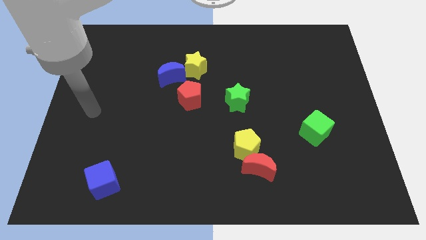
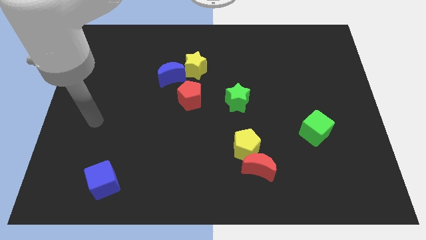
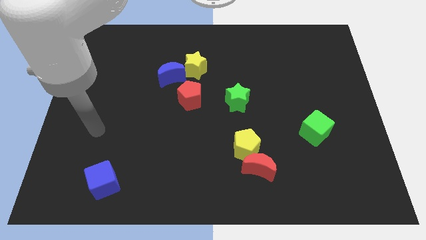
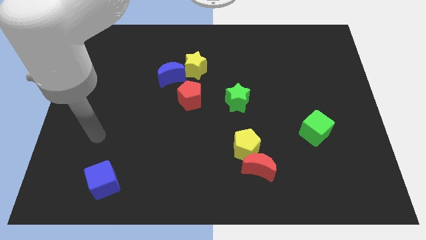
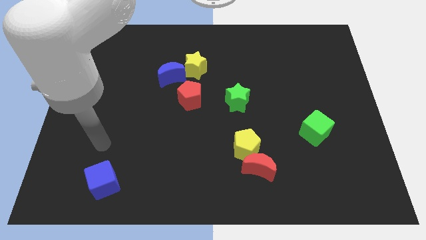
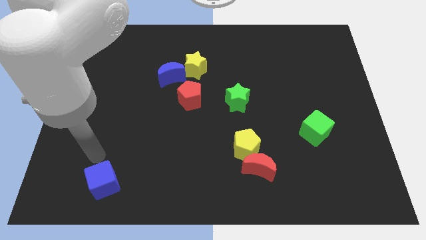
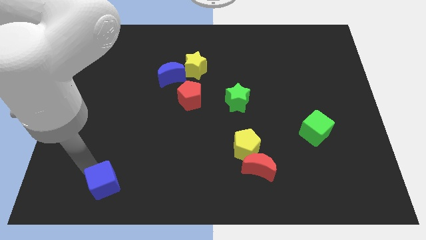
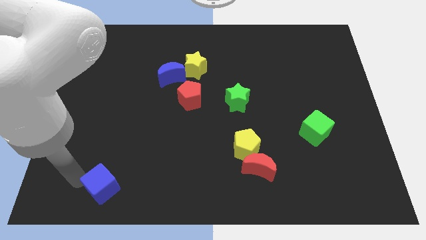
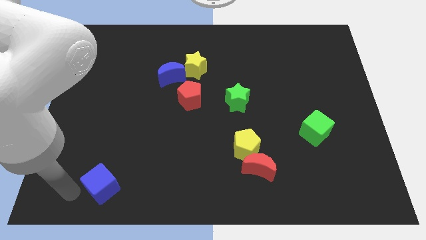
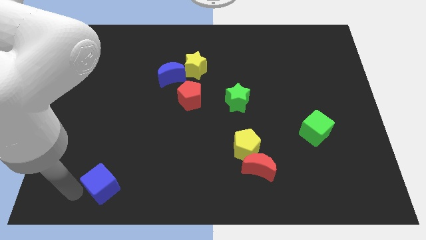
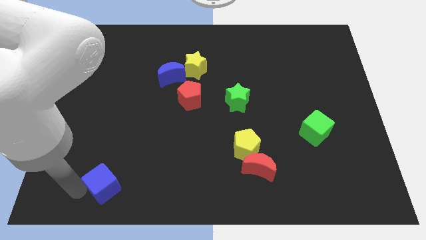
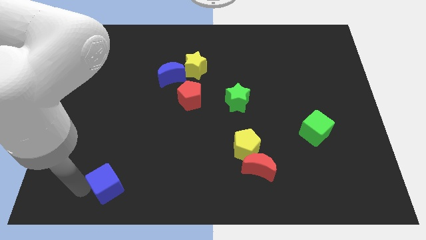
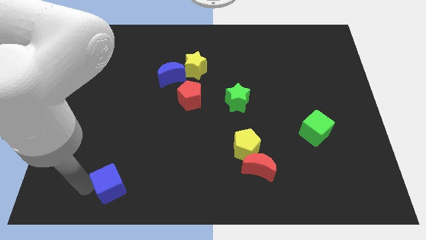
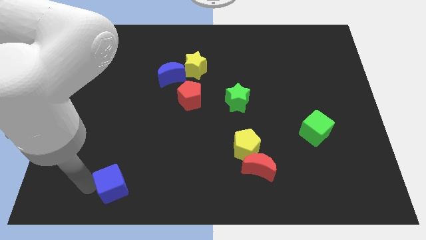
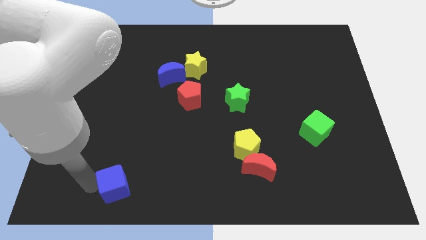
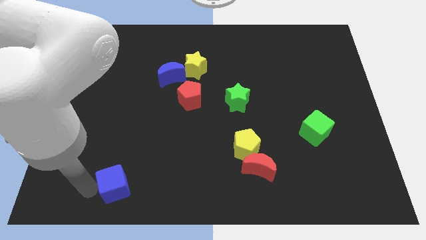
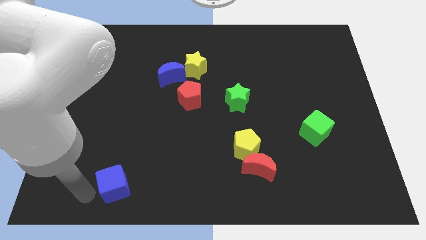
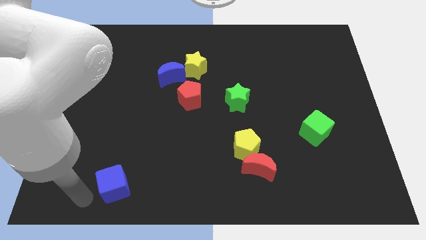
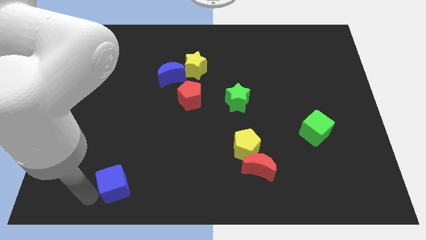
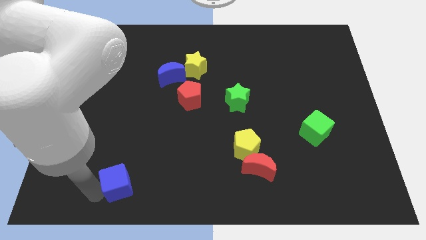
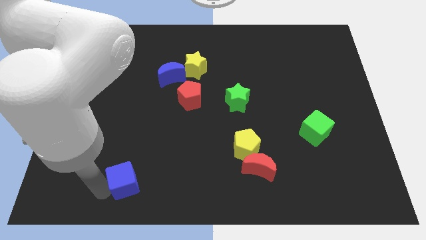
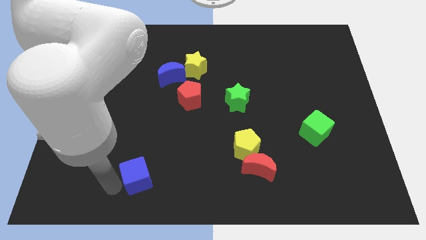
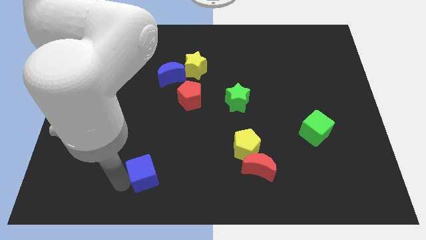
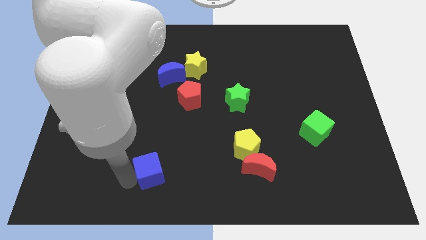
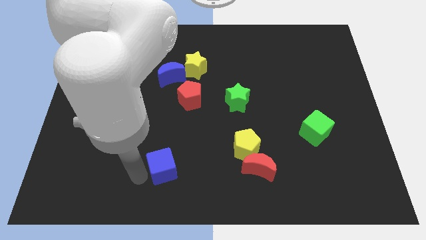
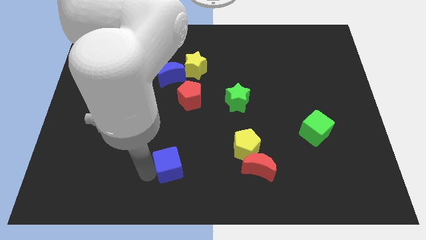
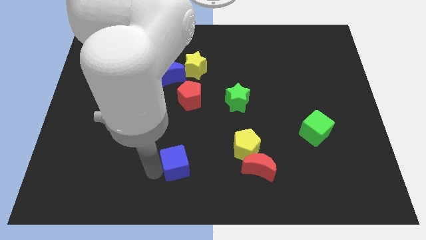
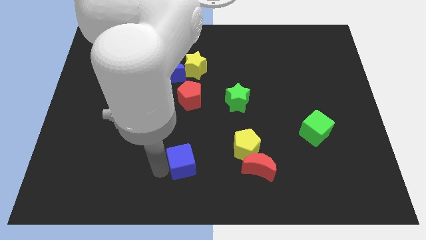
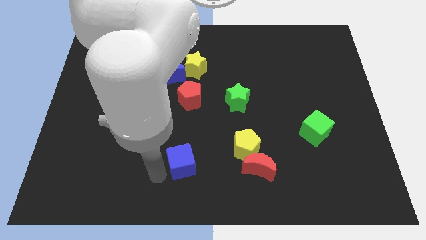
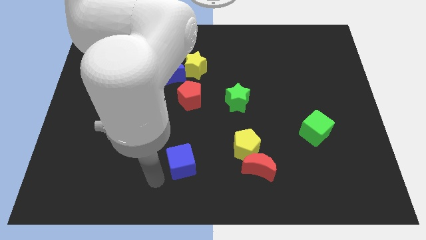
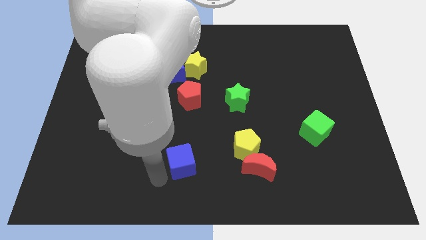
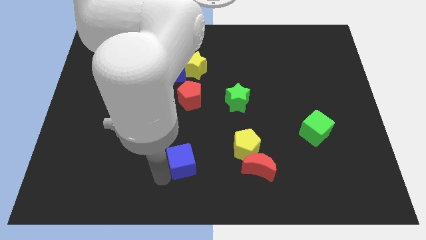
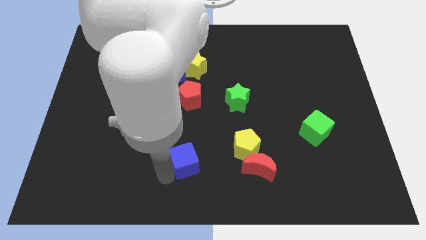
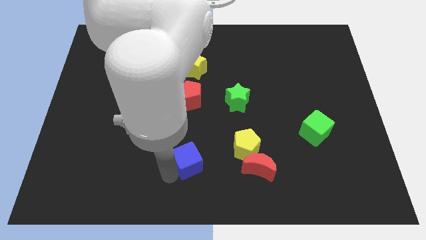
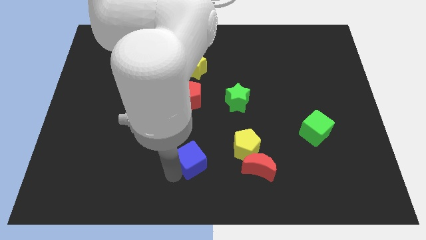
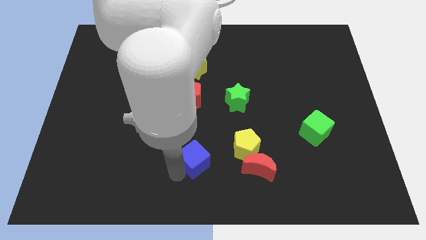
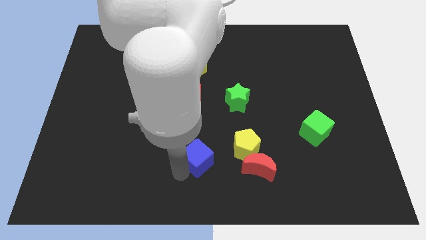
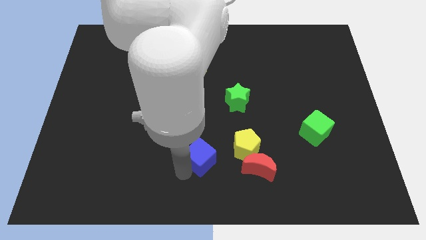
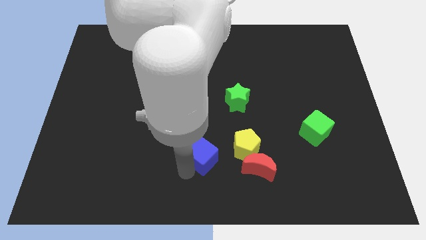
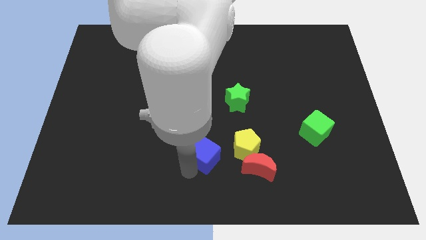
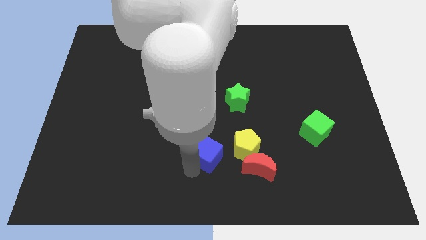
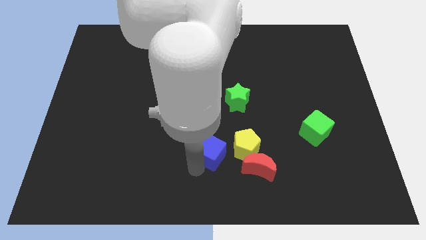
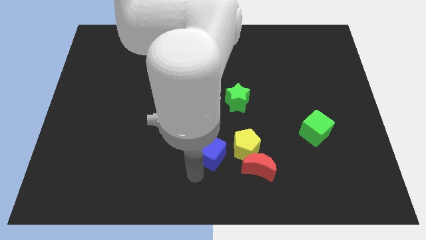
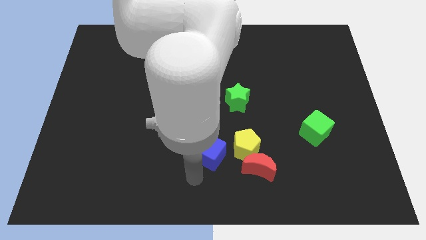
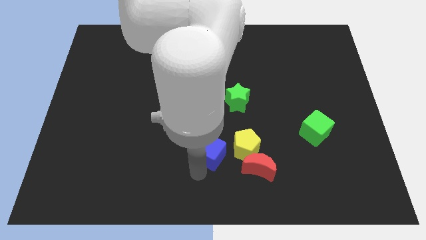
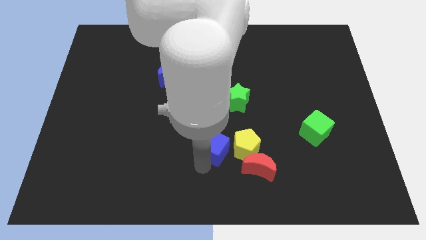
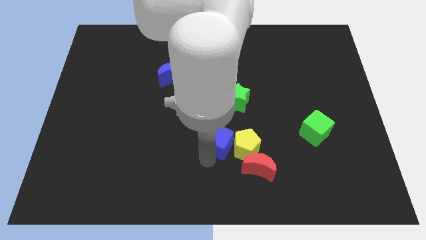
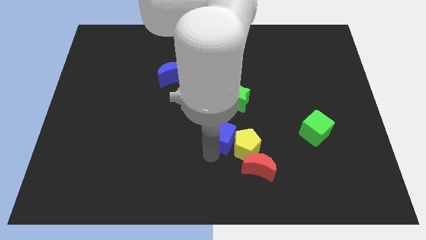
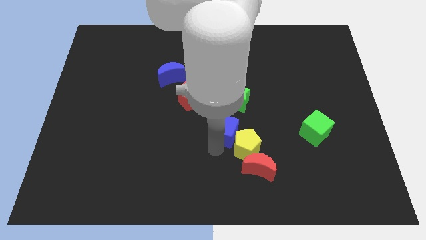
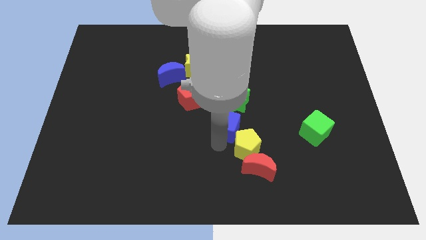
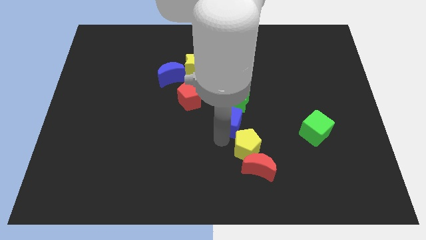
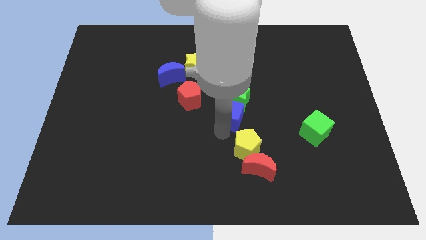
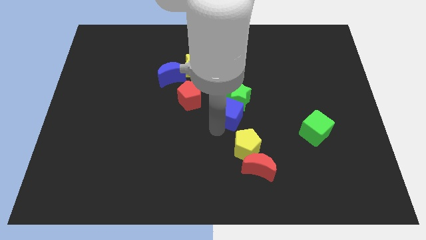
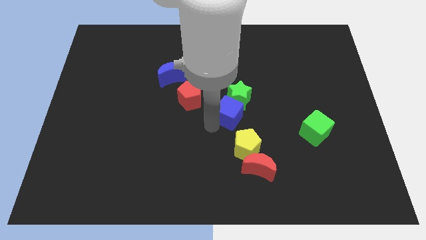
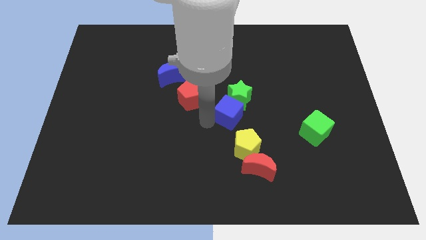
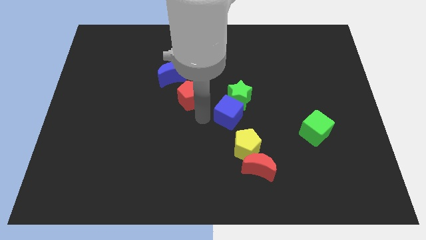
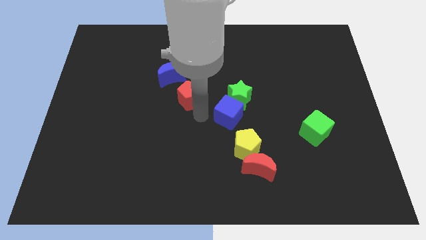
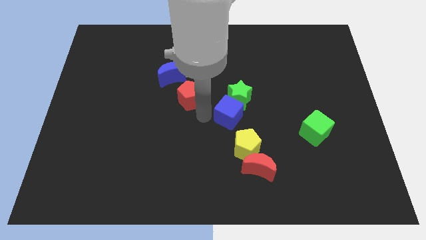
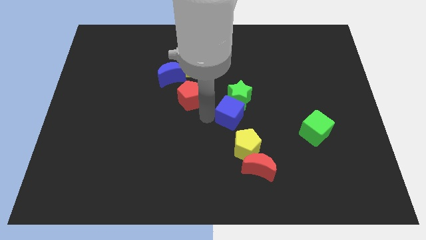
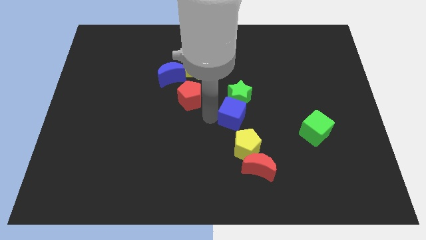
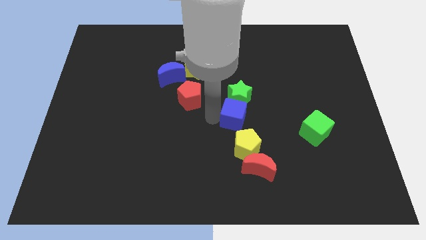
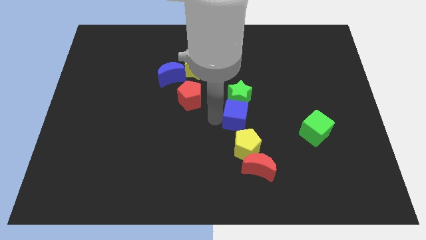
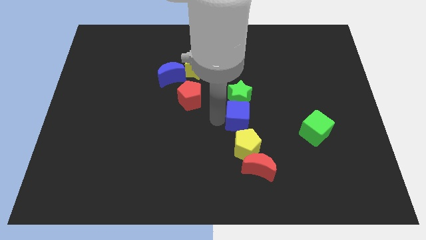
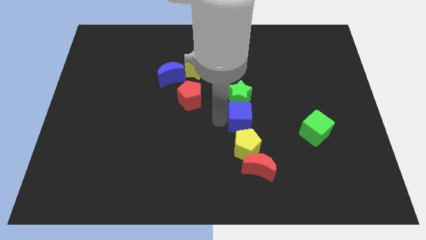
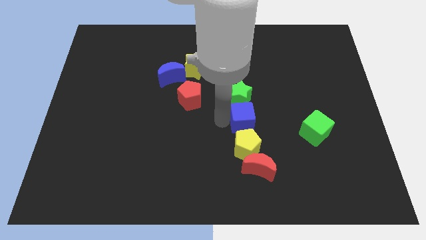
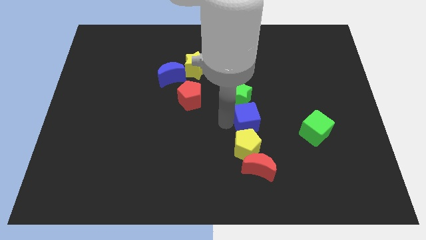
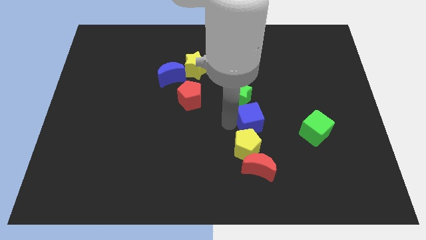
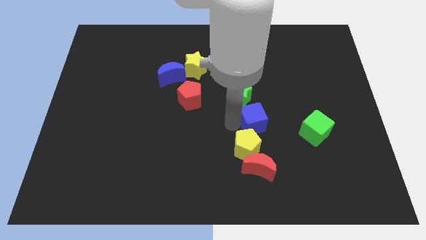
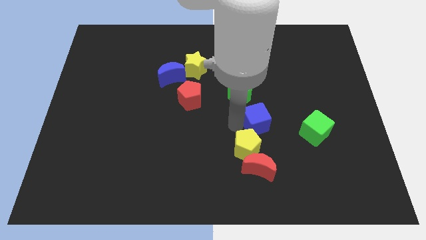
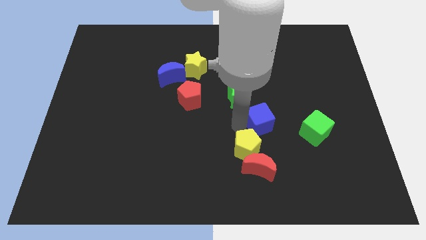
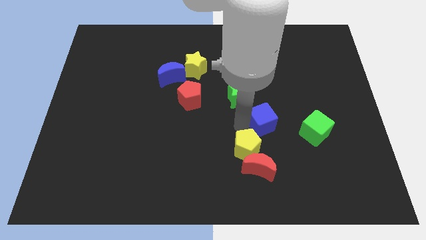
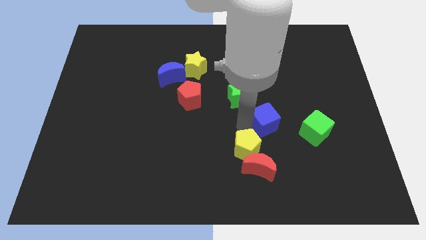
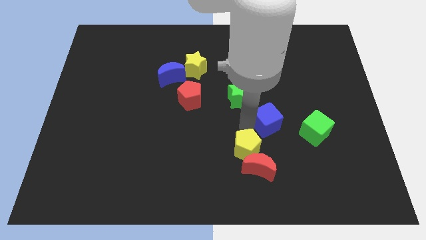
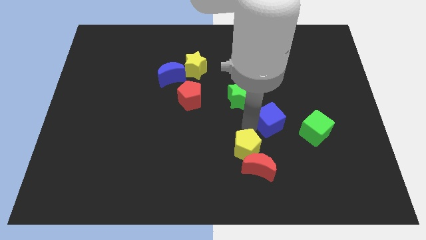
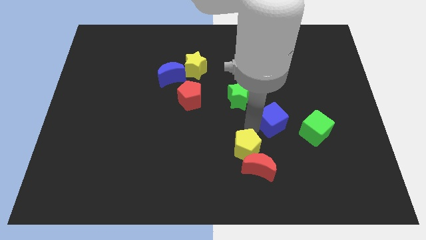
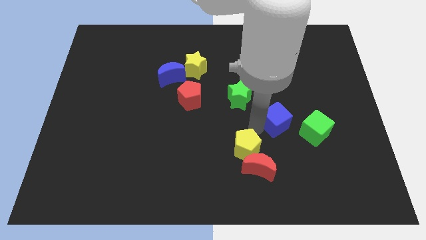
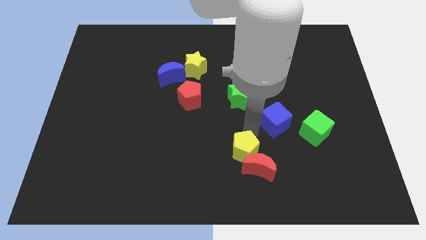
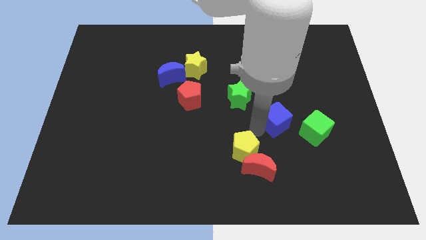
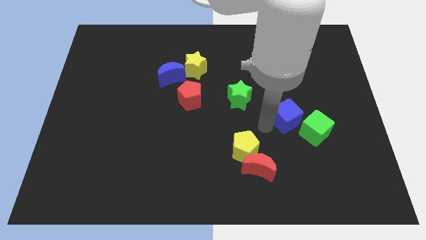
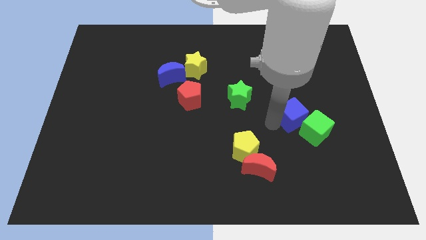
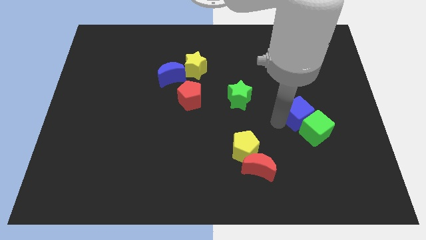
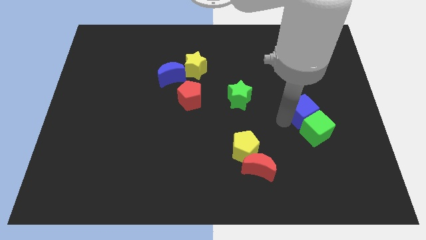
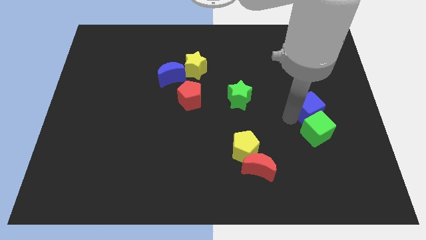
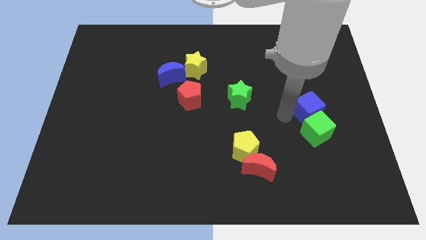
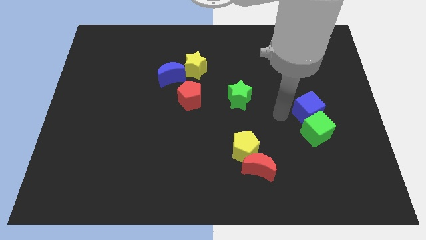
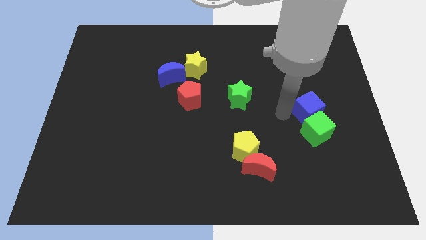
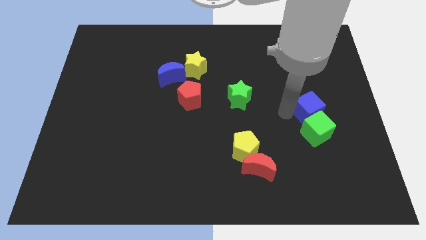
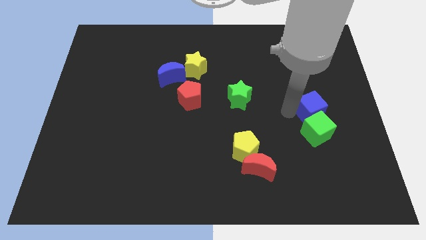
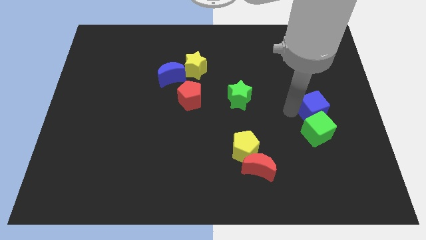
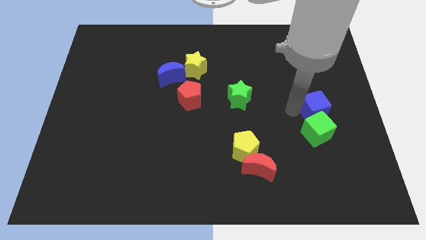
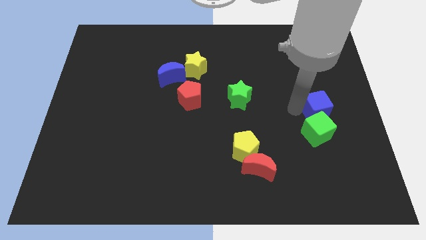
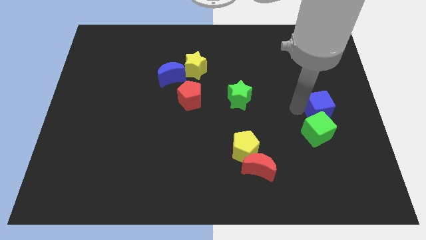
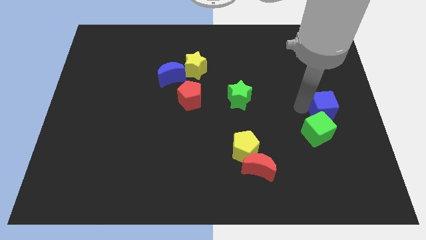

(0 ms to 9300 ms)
put the blue cube to the right side of the board
